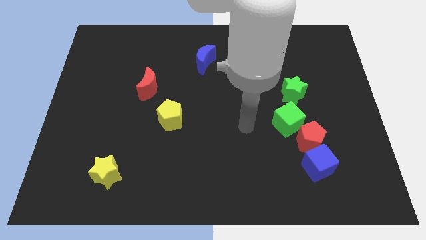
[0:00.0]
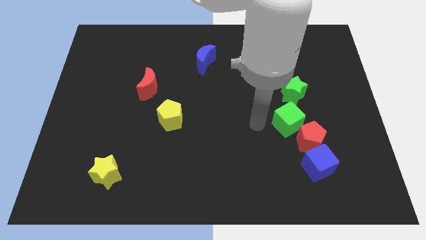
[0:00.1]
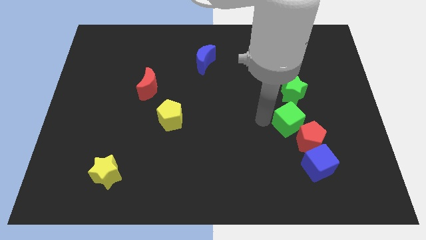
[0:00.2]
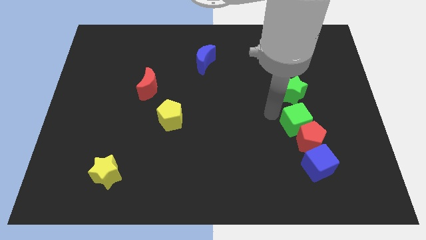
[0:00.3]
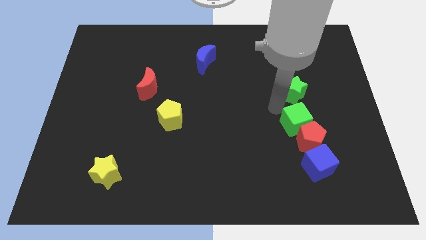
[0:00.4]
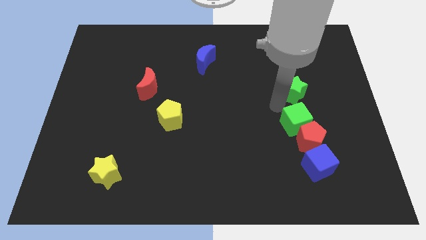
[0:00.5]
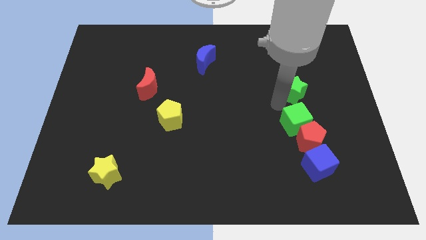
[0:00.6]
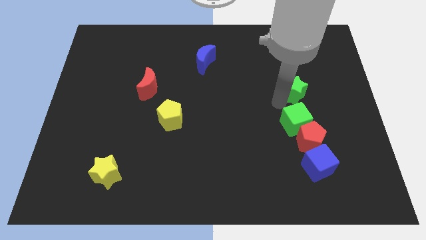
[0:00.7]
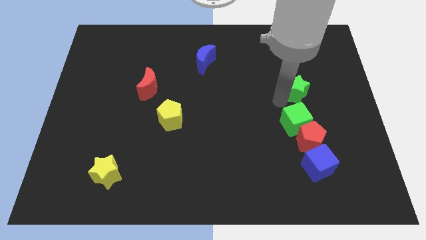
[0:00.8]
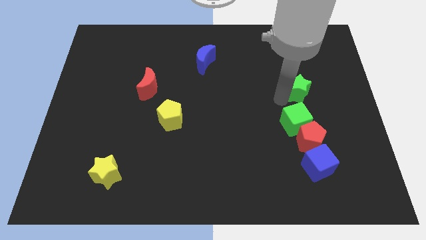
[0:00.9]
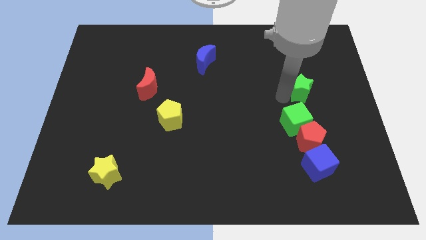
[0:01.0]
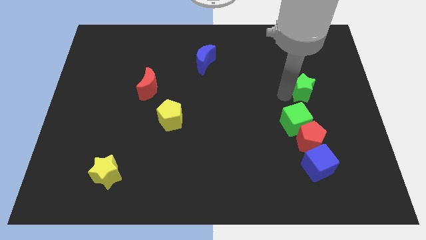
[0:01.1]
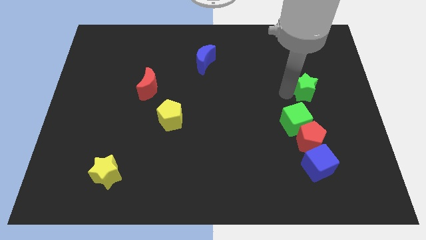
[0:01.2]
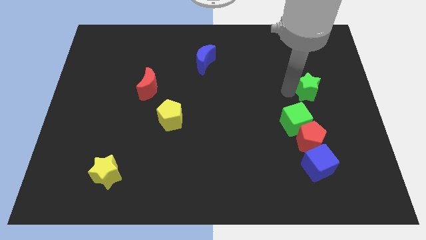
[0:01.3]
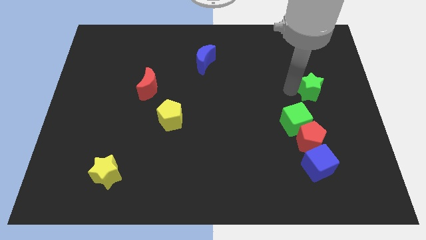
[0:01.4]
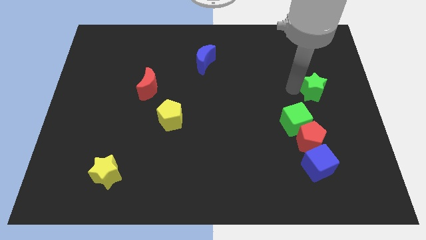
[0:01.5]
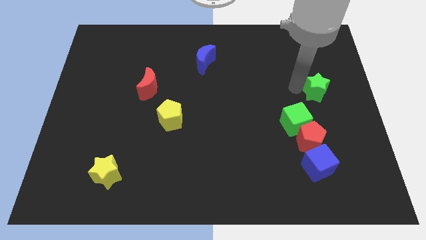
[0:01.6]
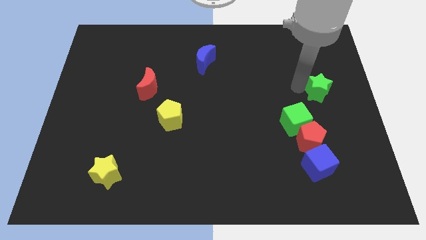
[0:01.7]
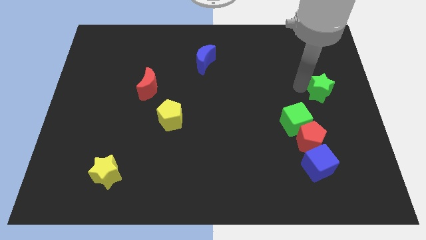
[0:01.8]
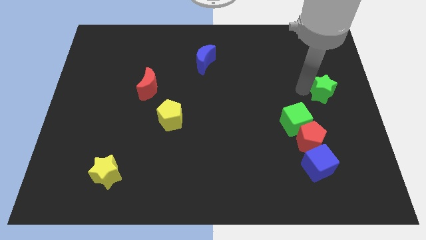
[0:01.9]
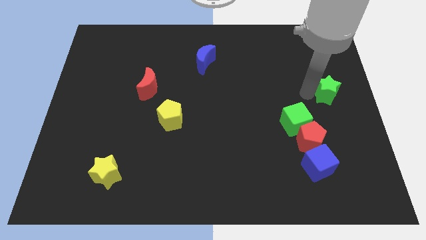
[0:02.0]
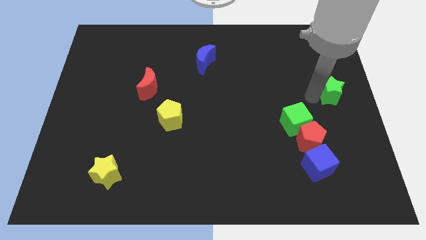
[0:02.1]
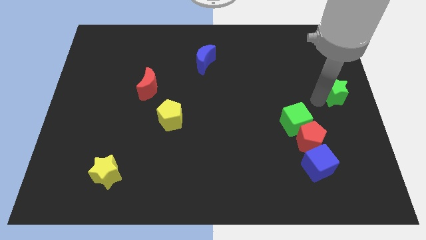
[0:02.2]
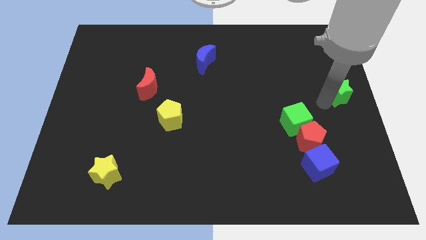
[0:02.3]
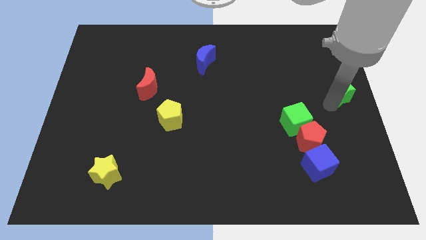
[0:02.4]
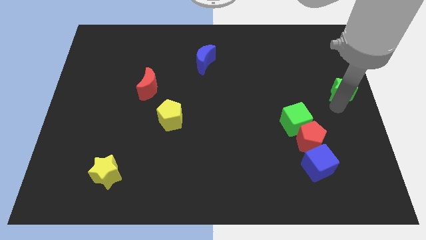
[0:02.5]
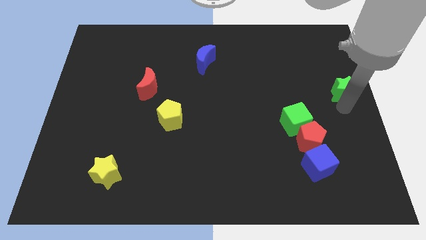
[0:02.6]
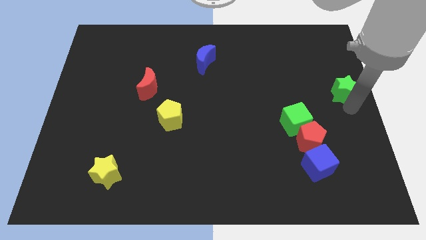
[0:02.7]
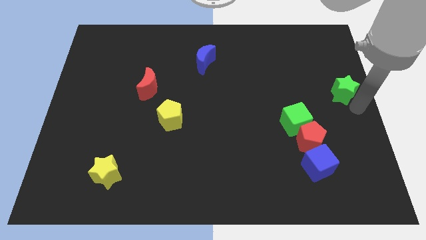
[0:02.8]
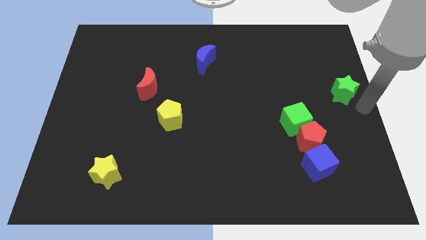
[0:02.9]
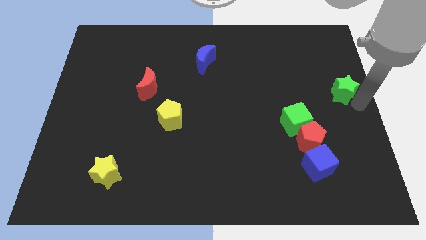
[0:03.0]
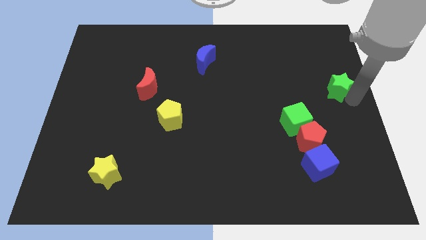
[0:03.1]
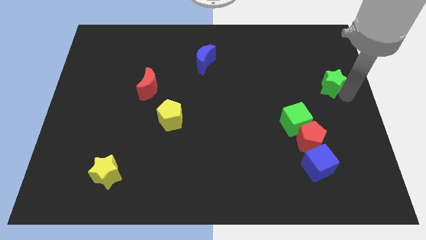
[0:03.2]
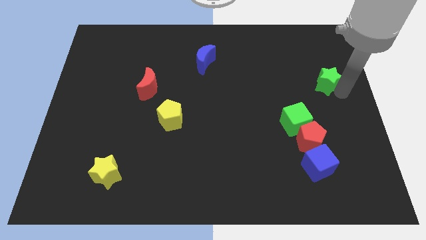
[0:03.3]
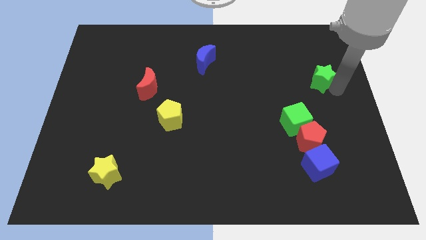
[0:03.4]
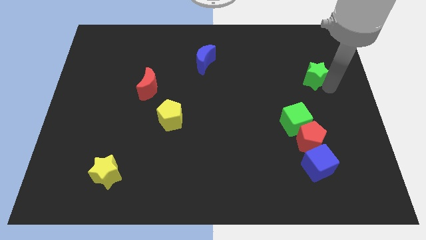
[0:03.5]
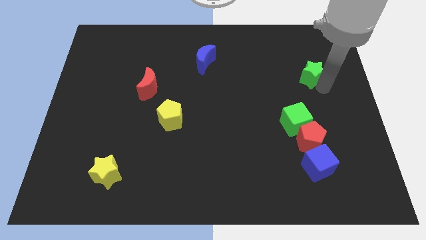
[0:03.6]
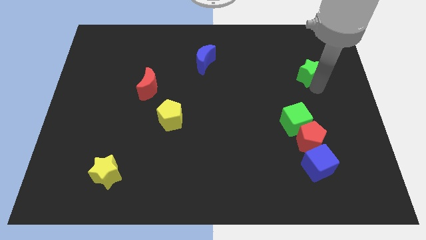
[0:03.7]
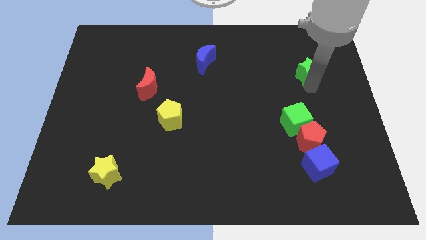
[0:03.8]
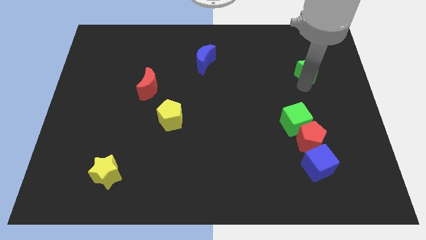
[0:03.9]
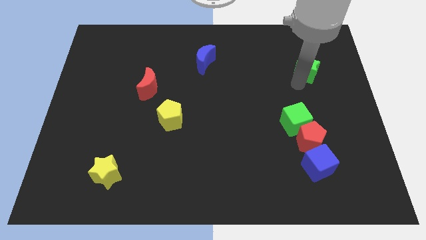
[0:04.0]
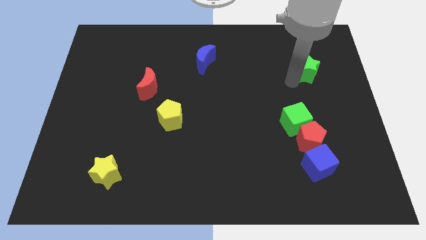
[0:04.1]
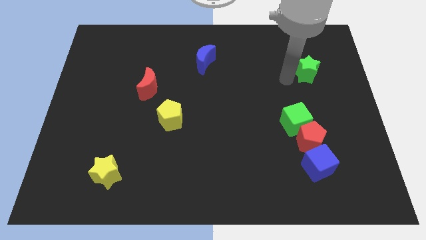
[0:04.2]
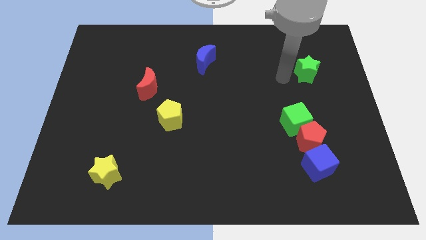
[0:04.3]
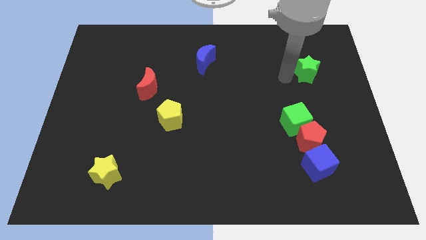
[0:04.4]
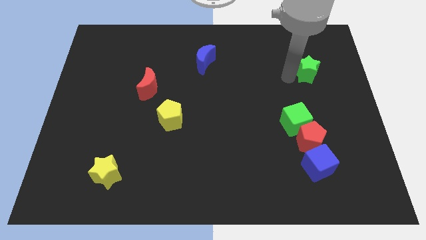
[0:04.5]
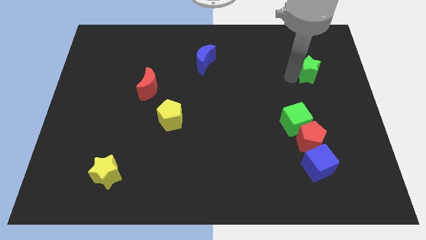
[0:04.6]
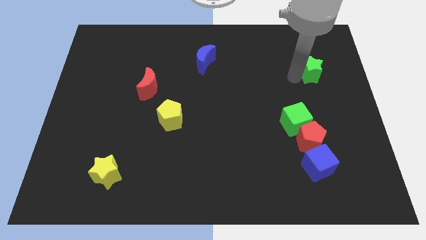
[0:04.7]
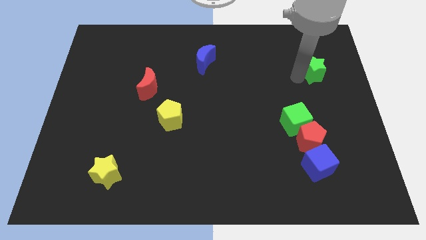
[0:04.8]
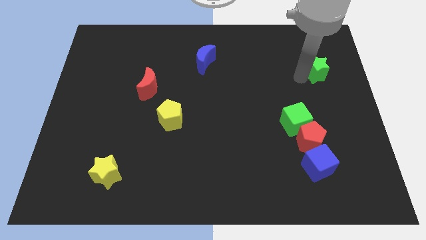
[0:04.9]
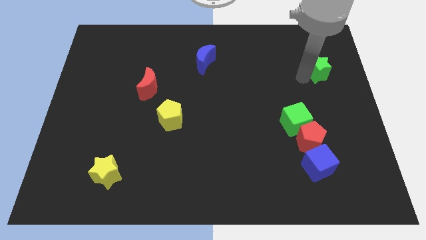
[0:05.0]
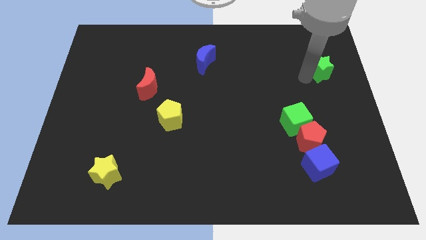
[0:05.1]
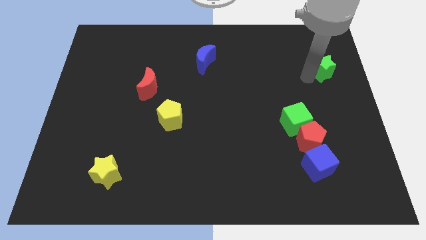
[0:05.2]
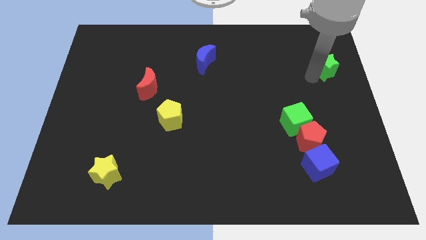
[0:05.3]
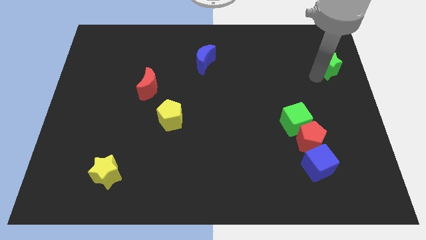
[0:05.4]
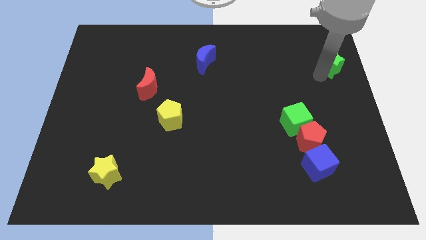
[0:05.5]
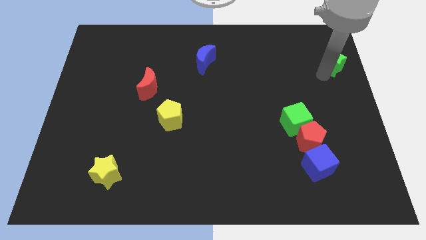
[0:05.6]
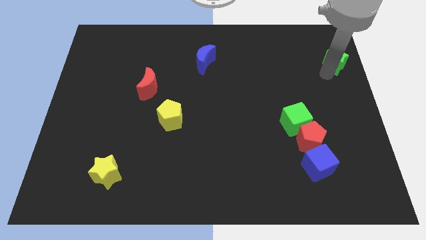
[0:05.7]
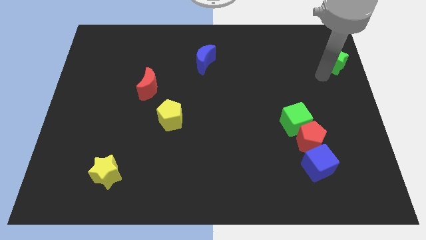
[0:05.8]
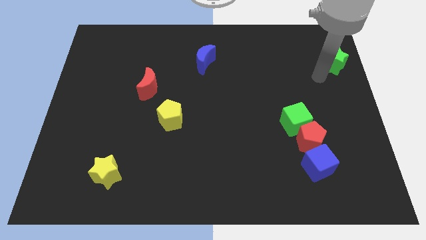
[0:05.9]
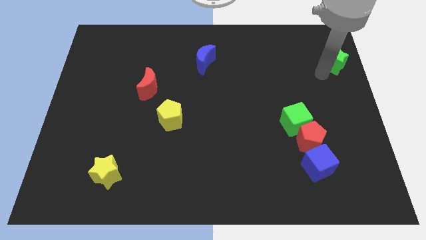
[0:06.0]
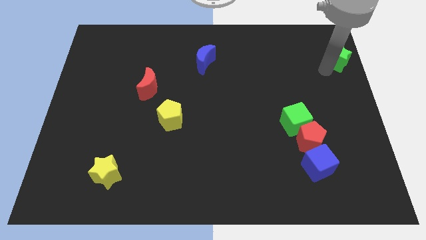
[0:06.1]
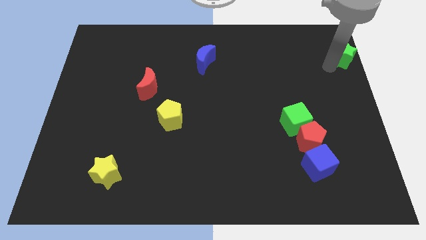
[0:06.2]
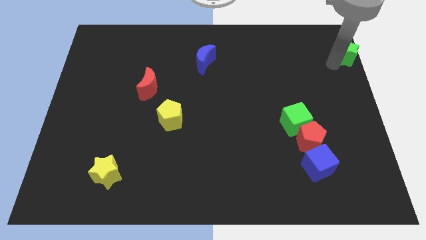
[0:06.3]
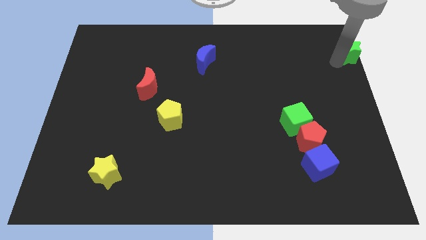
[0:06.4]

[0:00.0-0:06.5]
slide the green star to the top right corner
